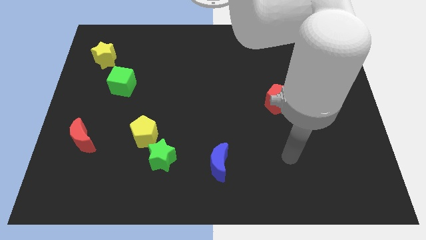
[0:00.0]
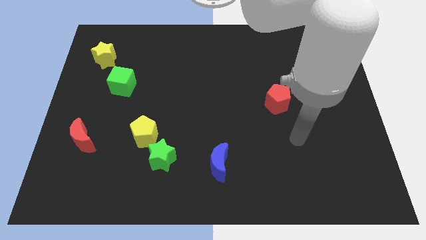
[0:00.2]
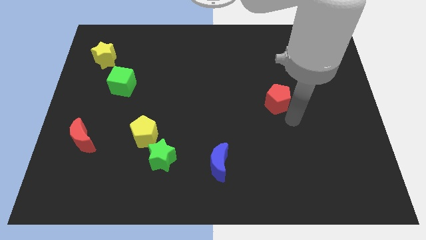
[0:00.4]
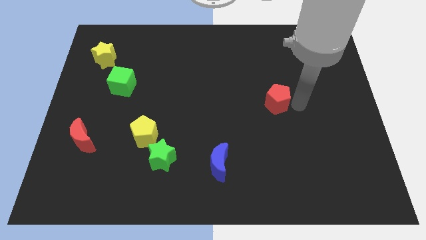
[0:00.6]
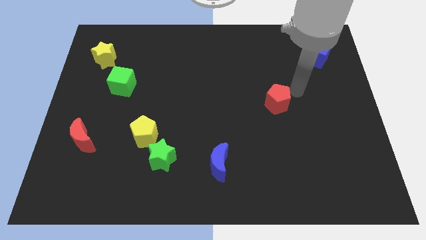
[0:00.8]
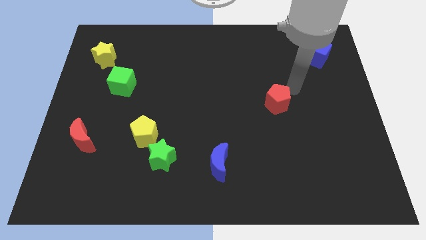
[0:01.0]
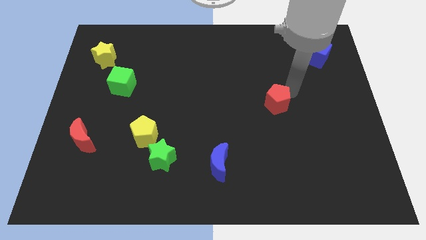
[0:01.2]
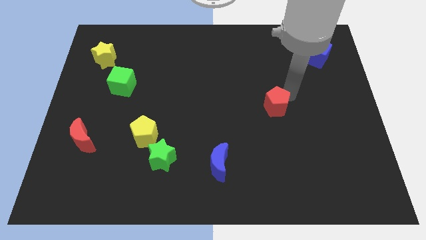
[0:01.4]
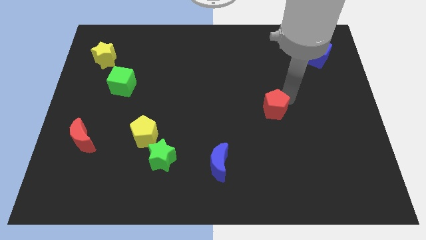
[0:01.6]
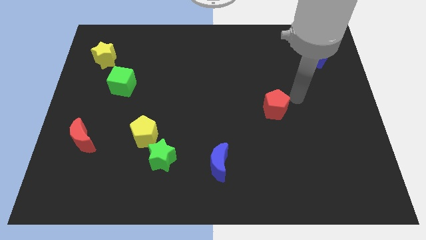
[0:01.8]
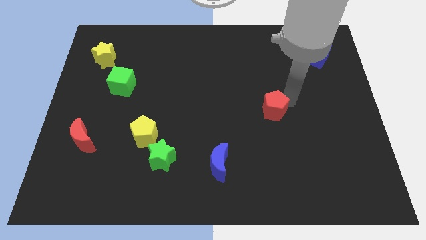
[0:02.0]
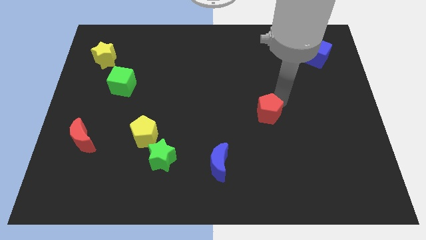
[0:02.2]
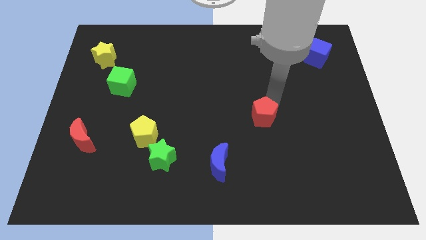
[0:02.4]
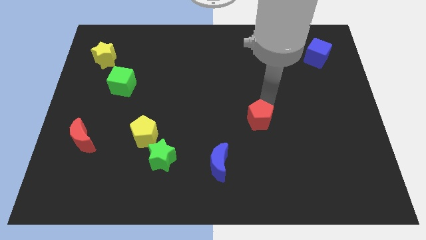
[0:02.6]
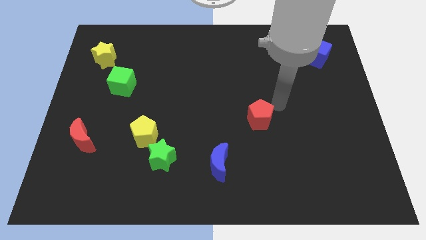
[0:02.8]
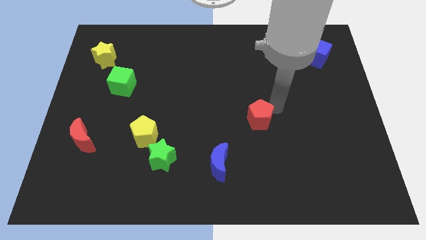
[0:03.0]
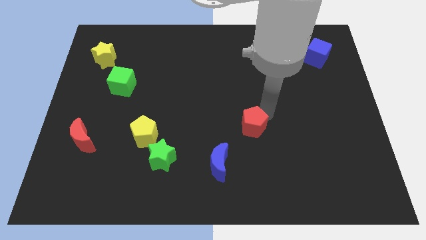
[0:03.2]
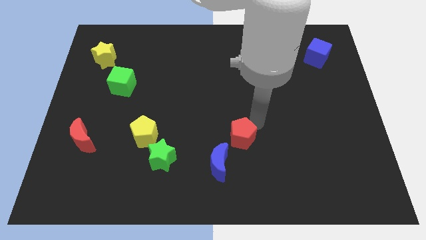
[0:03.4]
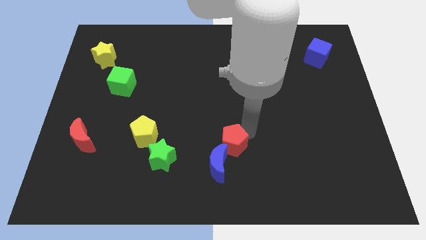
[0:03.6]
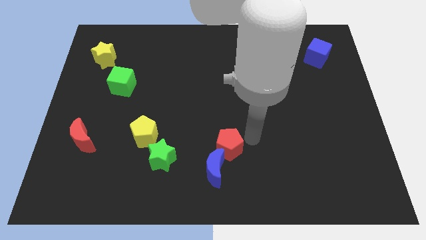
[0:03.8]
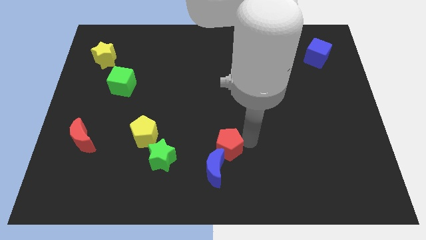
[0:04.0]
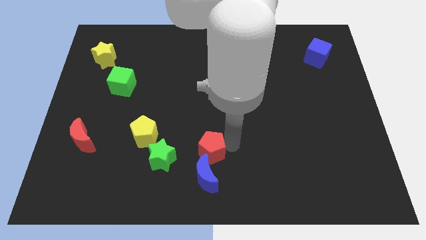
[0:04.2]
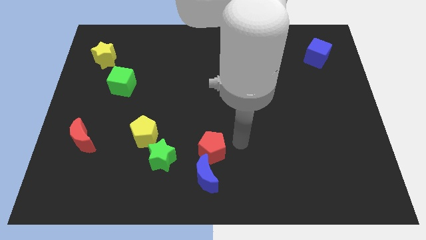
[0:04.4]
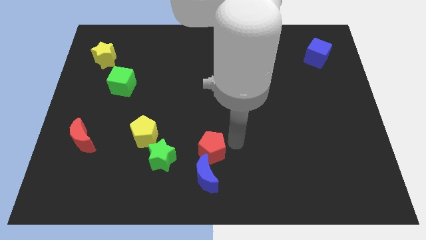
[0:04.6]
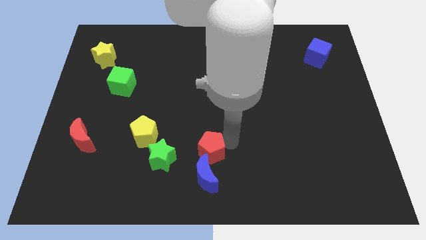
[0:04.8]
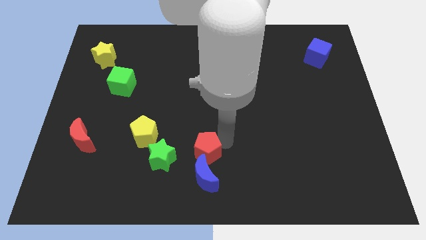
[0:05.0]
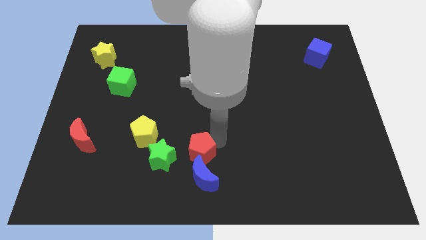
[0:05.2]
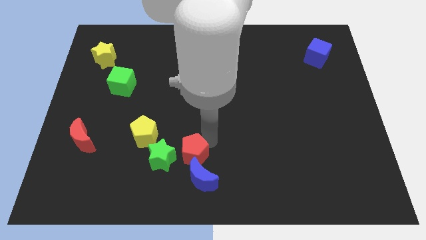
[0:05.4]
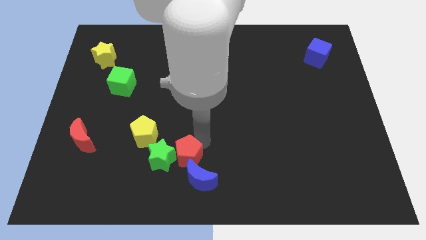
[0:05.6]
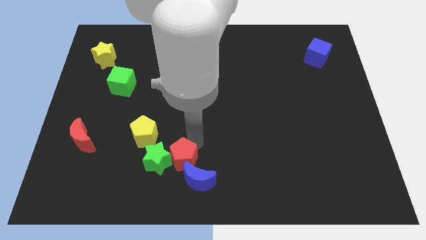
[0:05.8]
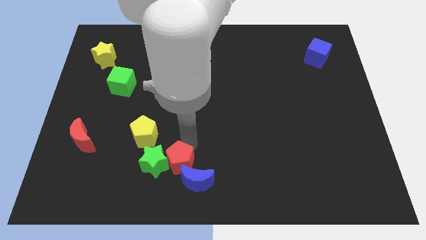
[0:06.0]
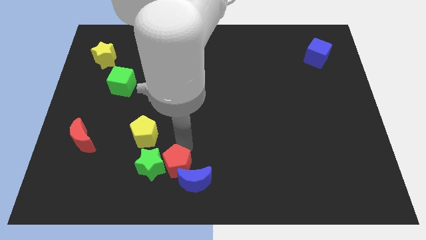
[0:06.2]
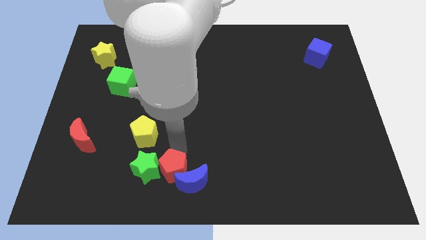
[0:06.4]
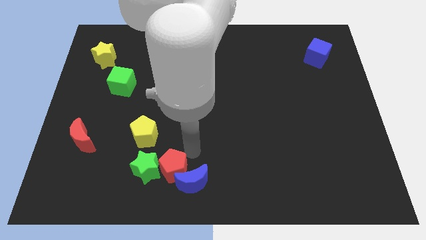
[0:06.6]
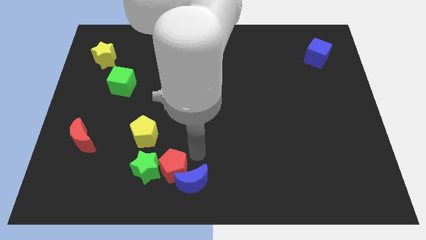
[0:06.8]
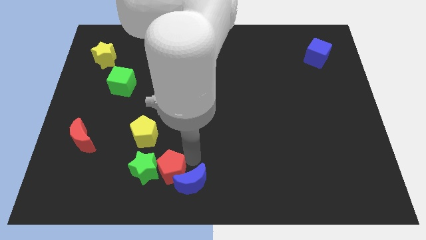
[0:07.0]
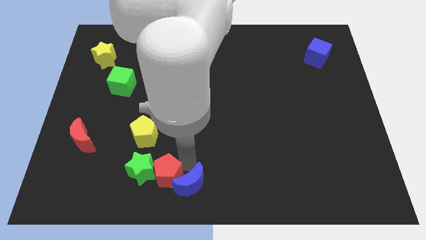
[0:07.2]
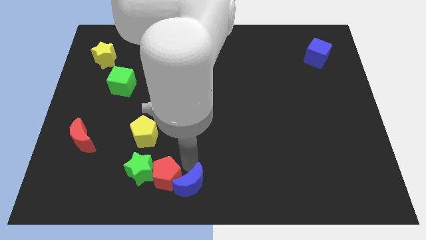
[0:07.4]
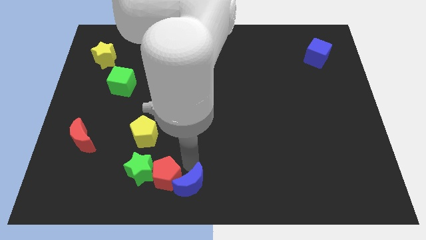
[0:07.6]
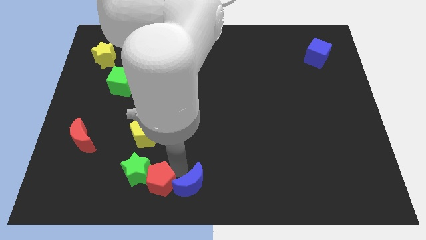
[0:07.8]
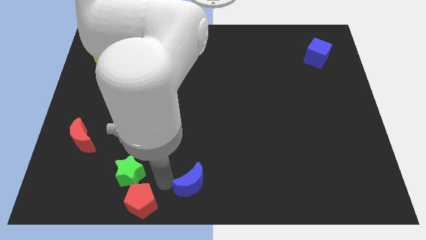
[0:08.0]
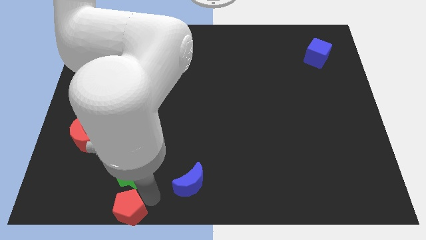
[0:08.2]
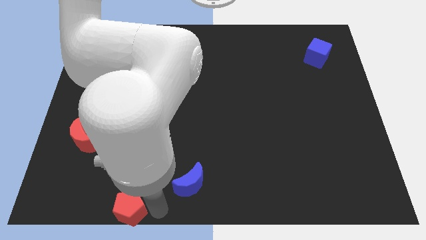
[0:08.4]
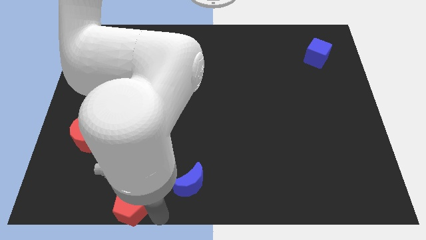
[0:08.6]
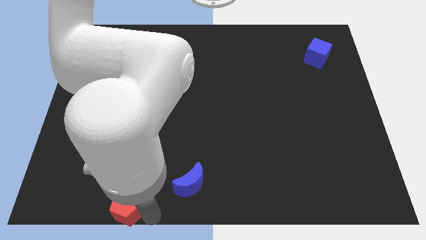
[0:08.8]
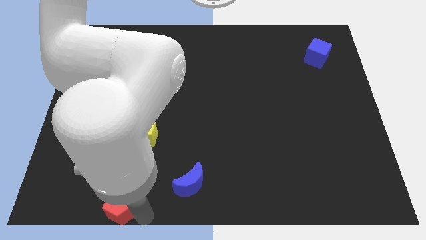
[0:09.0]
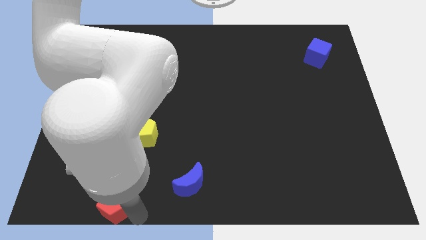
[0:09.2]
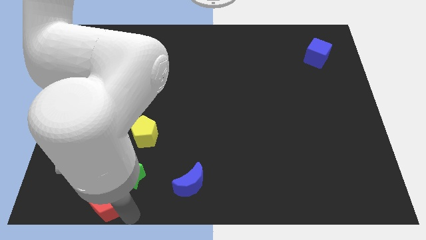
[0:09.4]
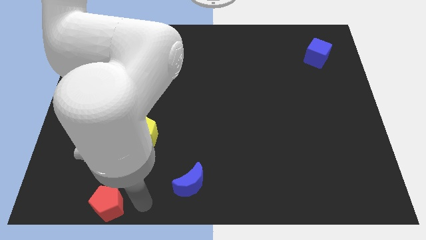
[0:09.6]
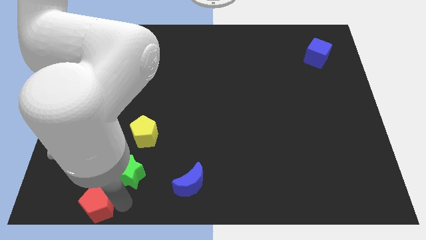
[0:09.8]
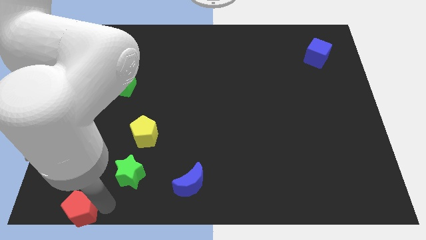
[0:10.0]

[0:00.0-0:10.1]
put the red pentagon to the bottom left

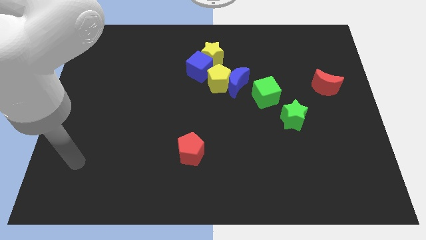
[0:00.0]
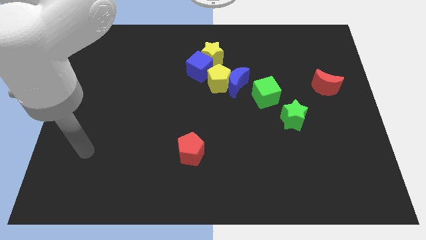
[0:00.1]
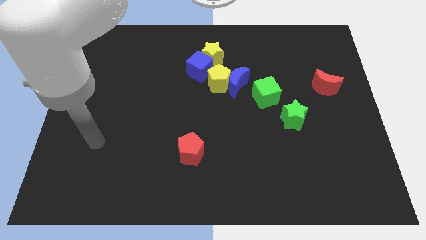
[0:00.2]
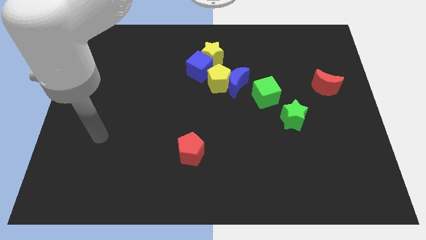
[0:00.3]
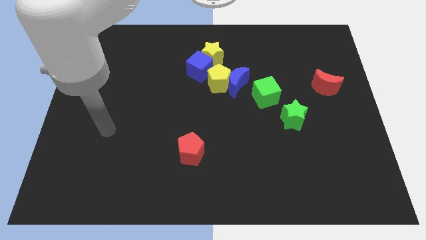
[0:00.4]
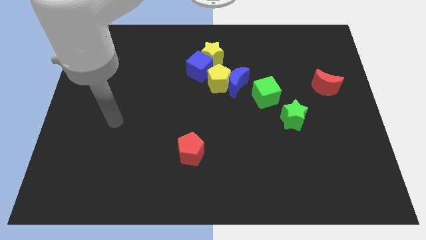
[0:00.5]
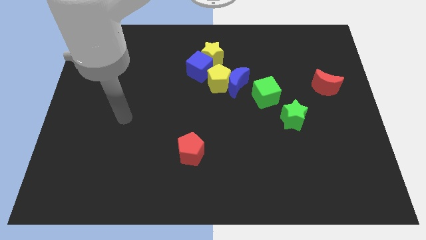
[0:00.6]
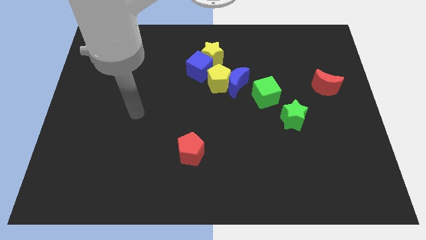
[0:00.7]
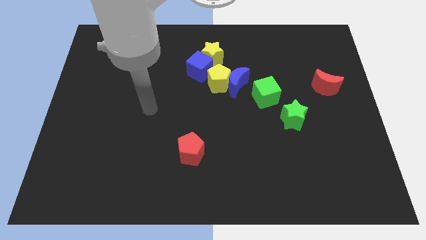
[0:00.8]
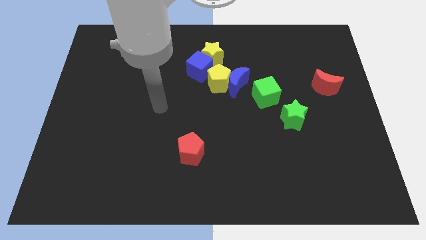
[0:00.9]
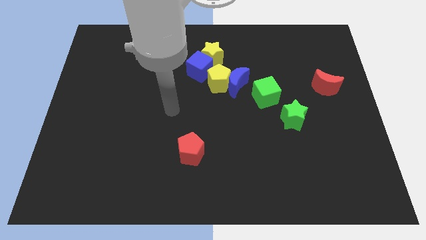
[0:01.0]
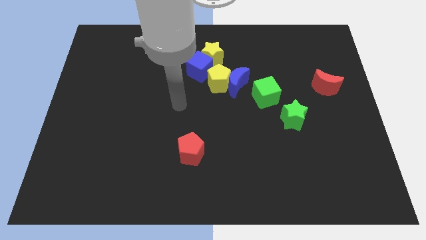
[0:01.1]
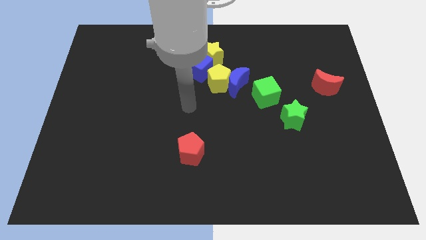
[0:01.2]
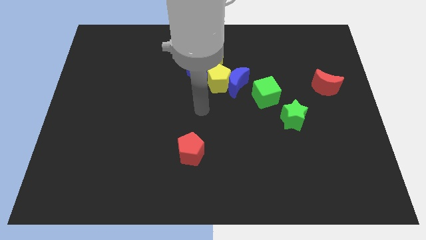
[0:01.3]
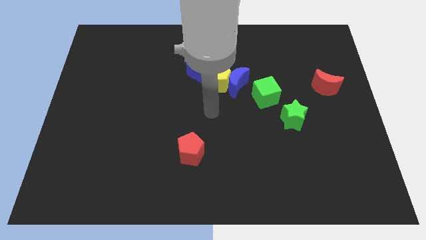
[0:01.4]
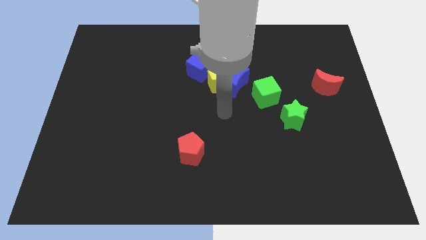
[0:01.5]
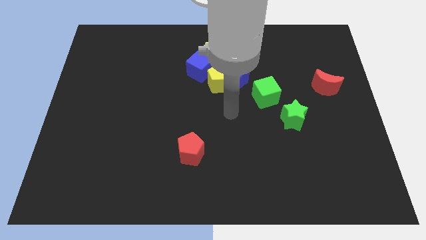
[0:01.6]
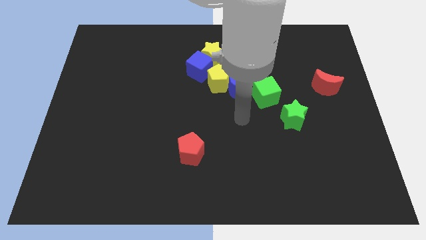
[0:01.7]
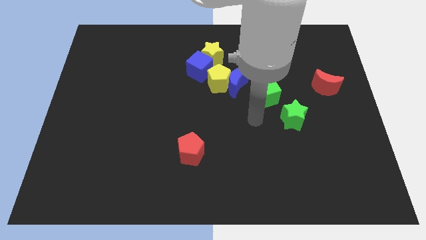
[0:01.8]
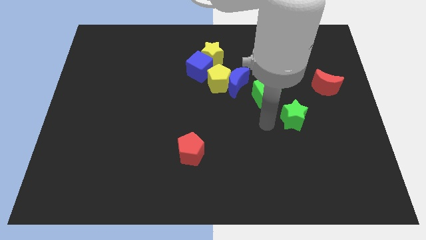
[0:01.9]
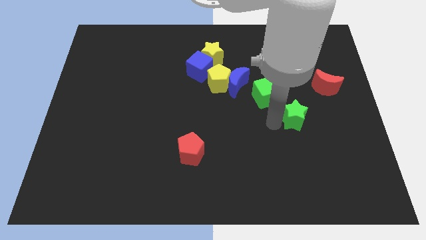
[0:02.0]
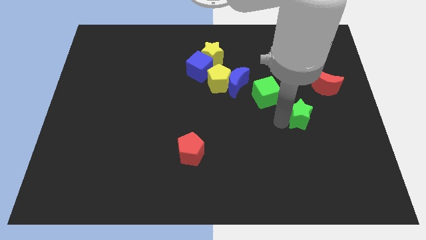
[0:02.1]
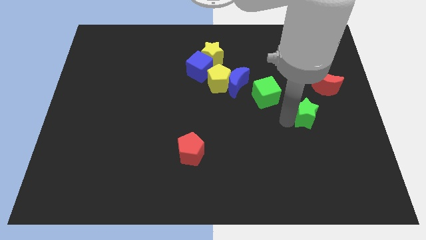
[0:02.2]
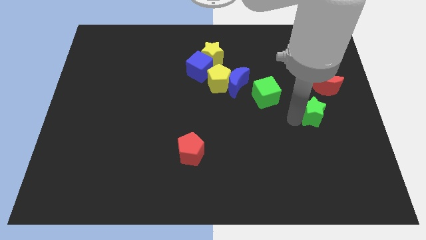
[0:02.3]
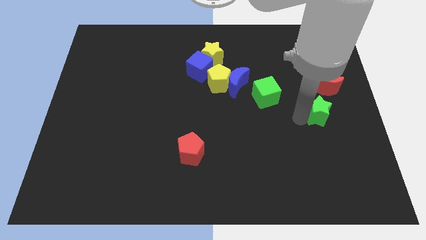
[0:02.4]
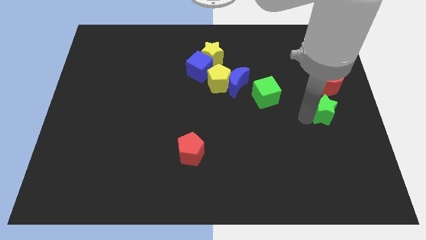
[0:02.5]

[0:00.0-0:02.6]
push the green star to the right side
